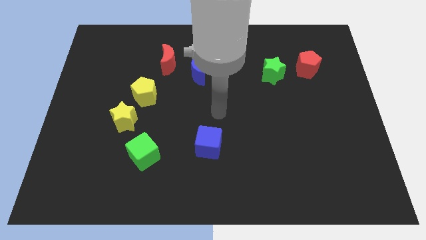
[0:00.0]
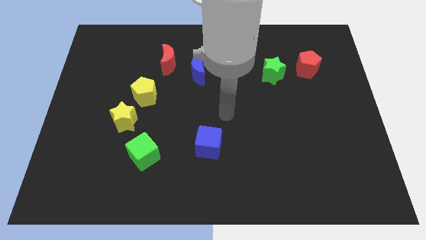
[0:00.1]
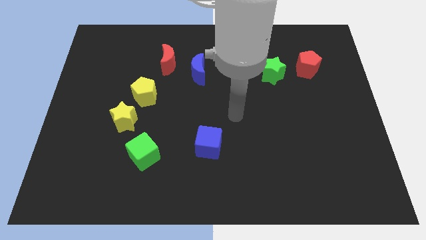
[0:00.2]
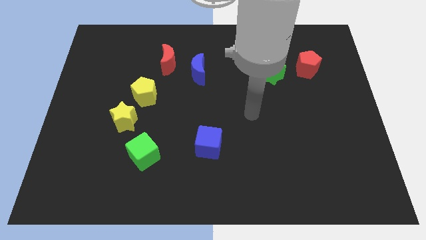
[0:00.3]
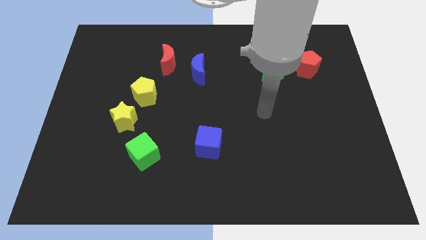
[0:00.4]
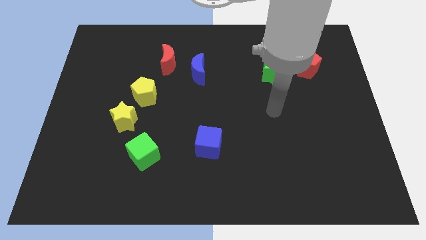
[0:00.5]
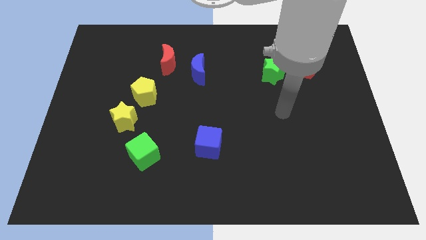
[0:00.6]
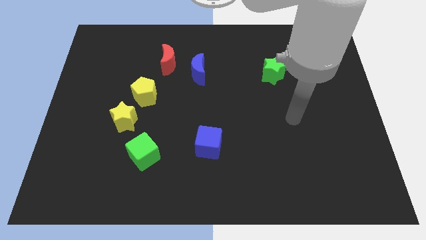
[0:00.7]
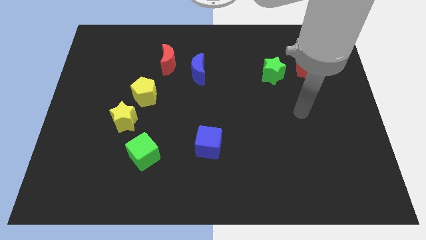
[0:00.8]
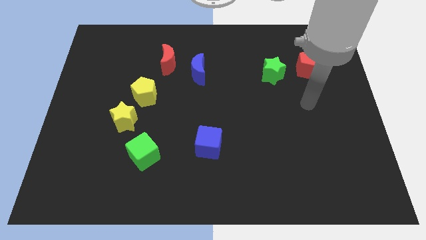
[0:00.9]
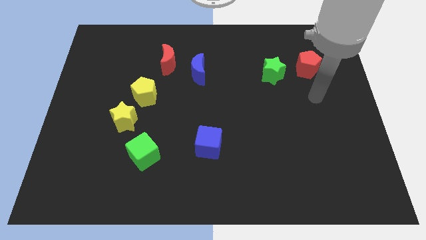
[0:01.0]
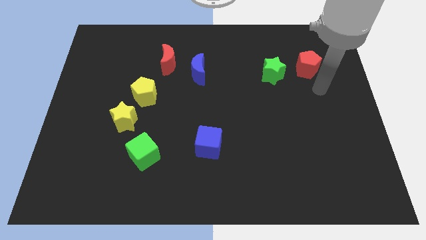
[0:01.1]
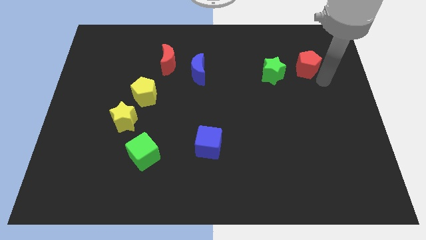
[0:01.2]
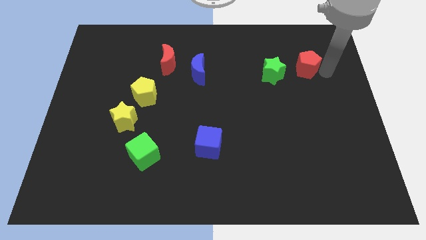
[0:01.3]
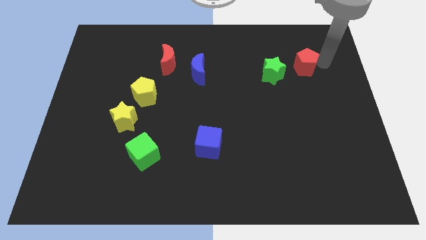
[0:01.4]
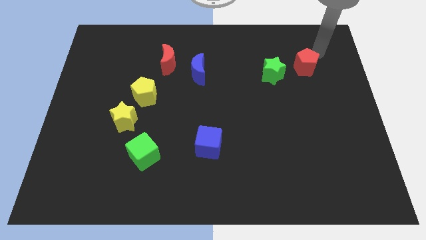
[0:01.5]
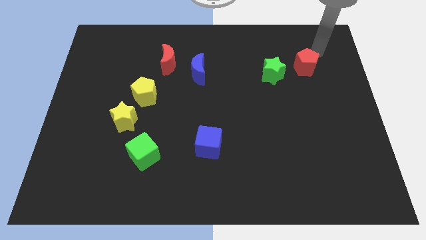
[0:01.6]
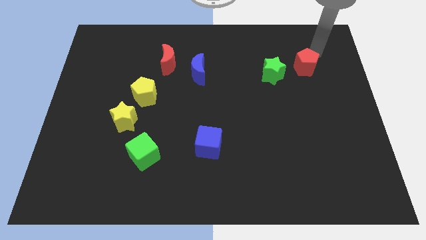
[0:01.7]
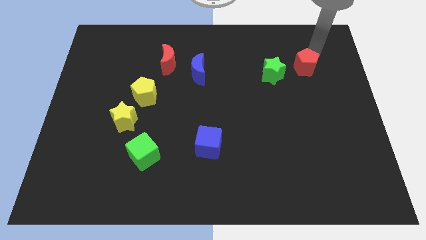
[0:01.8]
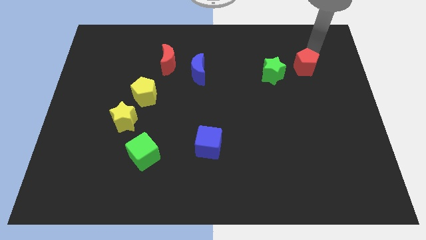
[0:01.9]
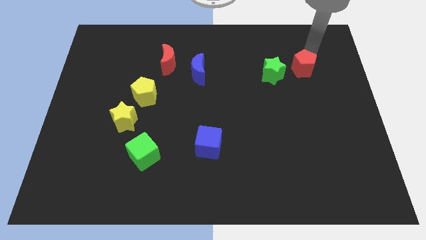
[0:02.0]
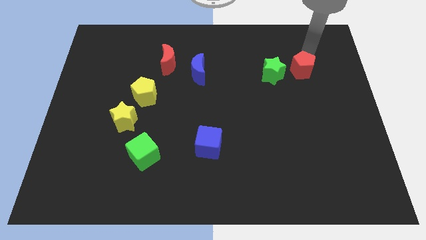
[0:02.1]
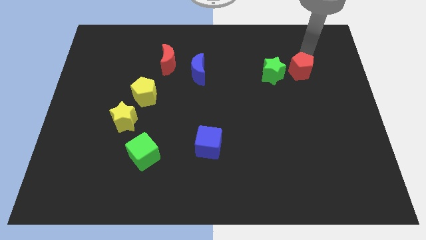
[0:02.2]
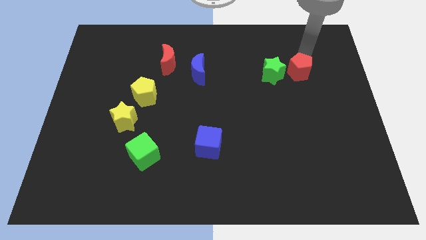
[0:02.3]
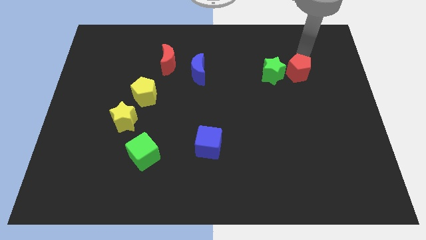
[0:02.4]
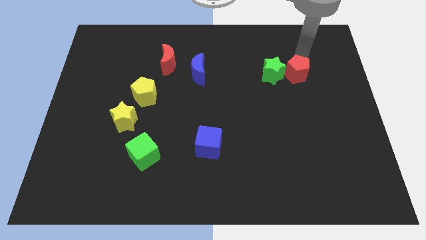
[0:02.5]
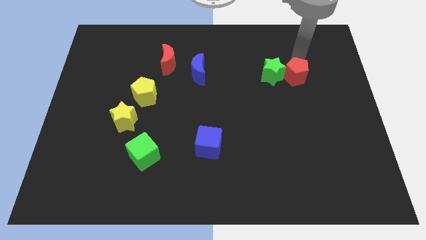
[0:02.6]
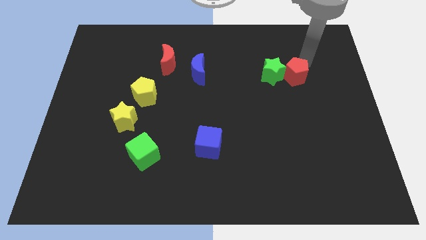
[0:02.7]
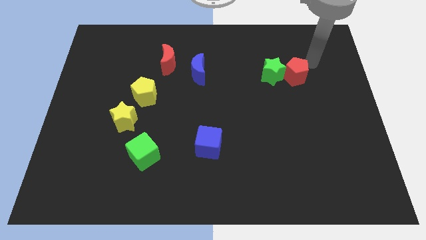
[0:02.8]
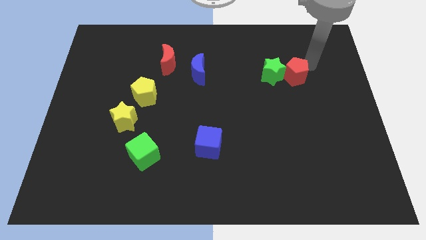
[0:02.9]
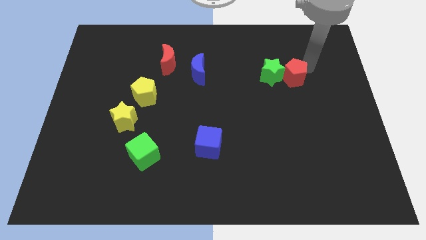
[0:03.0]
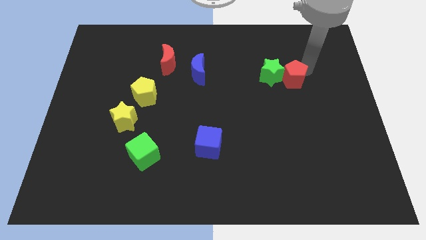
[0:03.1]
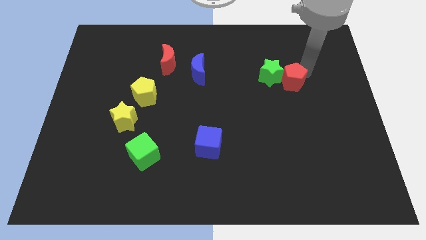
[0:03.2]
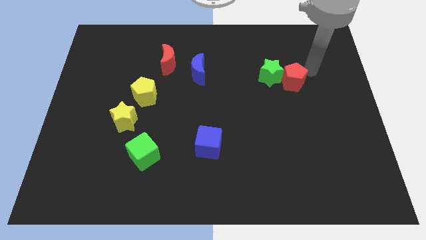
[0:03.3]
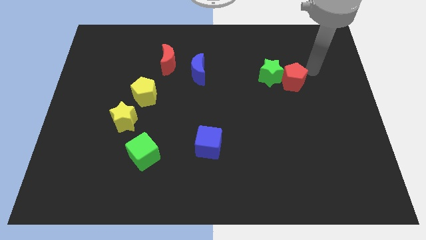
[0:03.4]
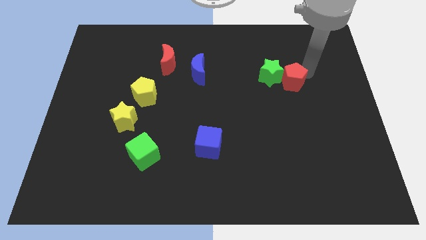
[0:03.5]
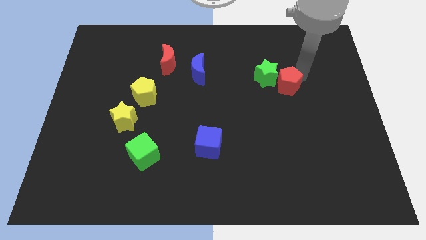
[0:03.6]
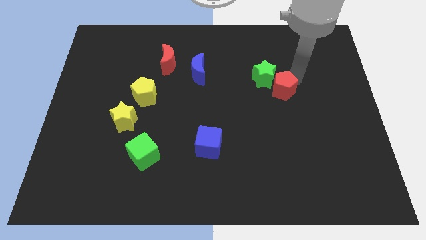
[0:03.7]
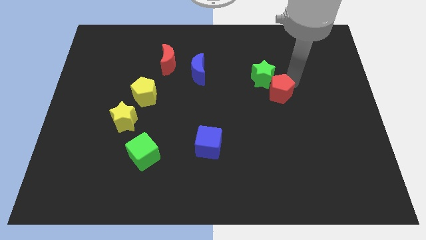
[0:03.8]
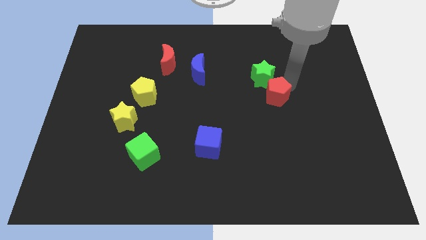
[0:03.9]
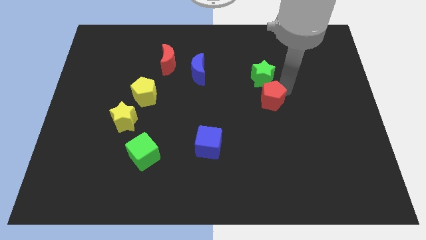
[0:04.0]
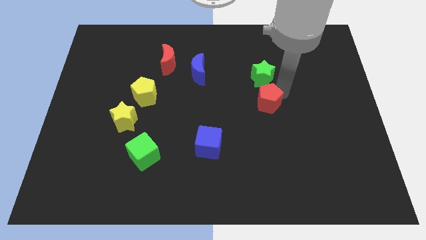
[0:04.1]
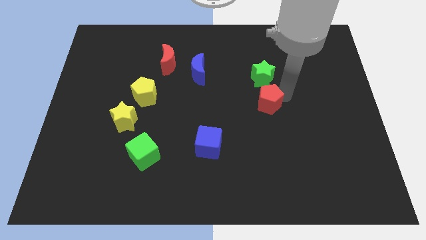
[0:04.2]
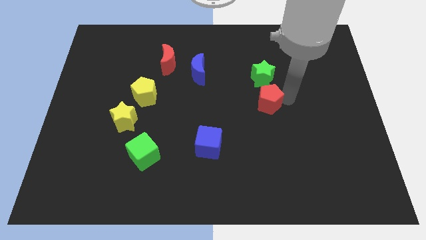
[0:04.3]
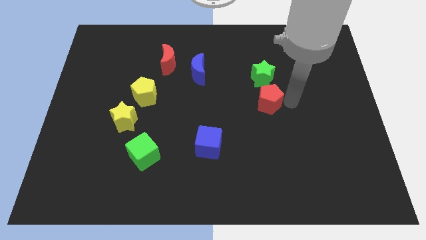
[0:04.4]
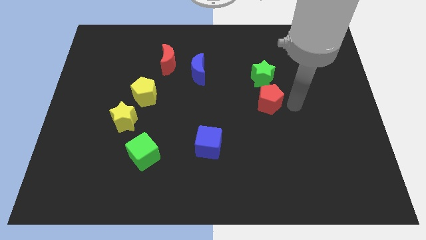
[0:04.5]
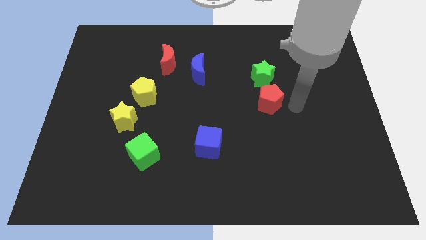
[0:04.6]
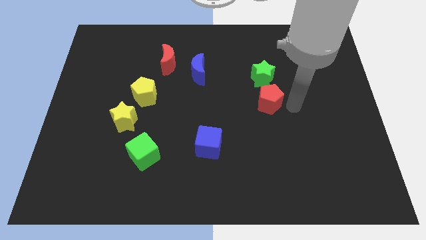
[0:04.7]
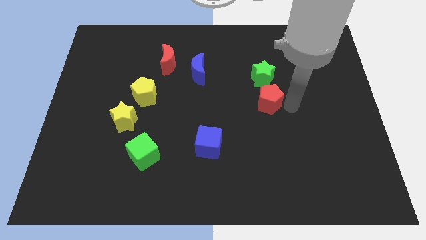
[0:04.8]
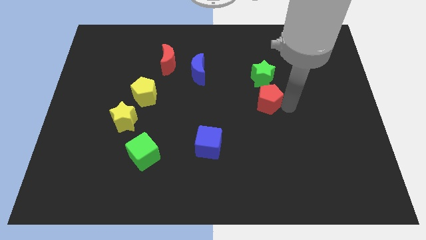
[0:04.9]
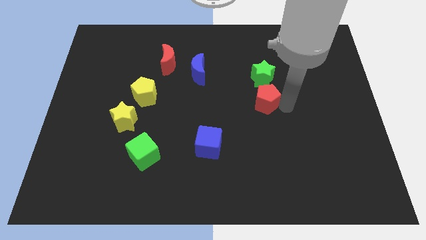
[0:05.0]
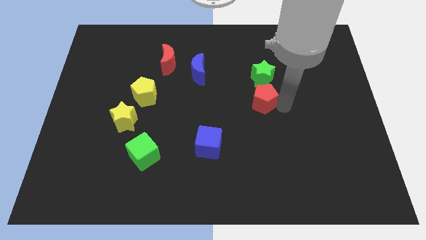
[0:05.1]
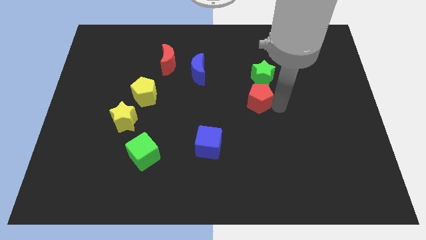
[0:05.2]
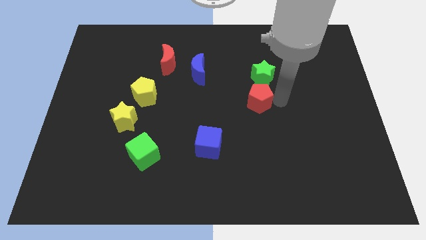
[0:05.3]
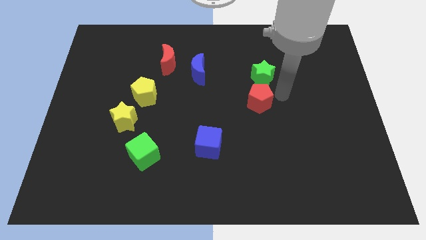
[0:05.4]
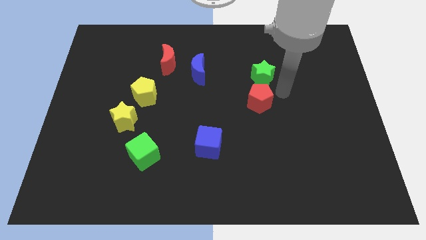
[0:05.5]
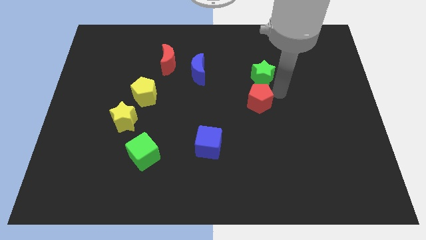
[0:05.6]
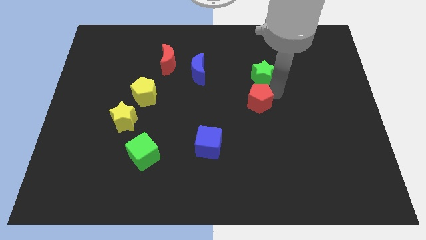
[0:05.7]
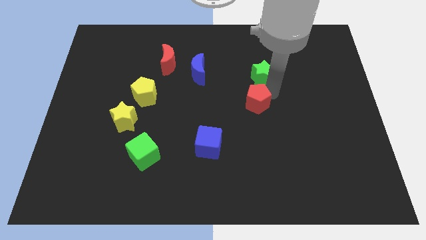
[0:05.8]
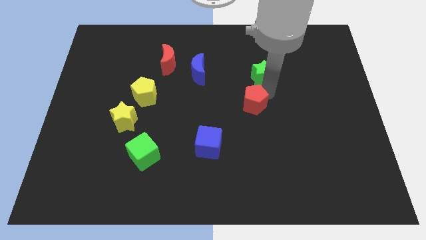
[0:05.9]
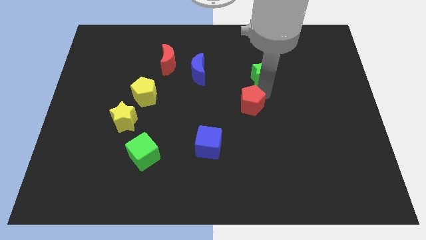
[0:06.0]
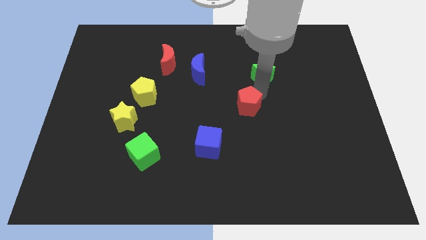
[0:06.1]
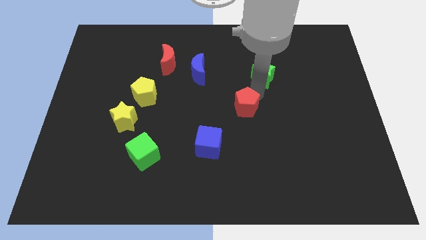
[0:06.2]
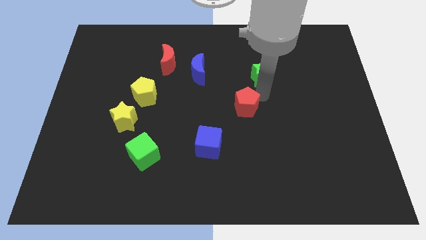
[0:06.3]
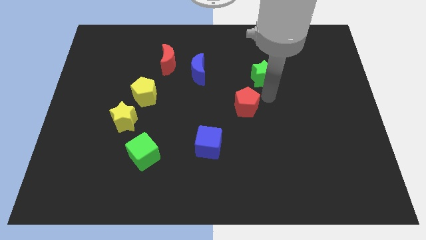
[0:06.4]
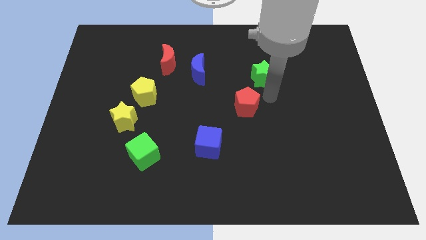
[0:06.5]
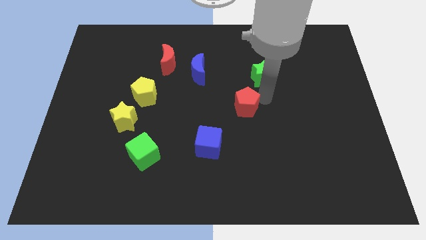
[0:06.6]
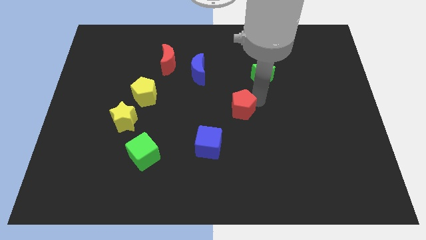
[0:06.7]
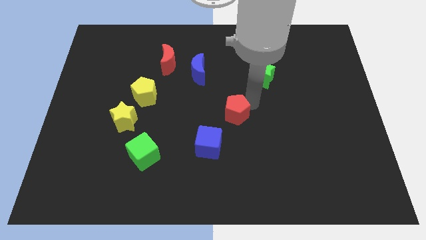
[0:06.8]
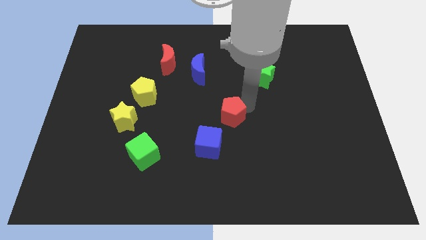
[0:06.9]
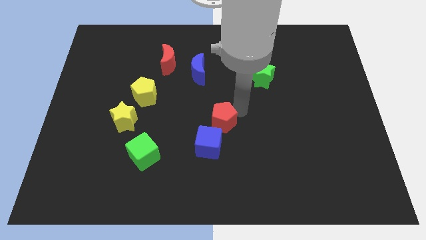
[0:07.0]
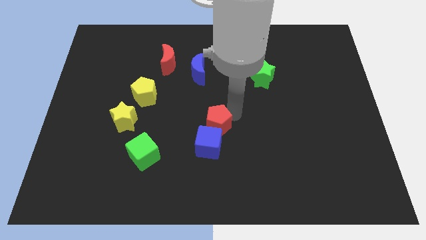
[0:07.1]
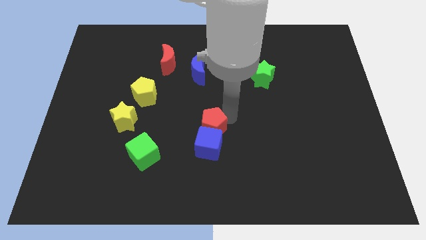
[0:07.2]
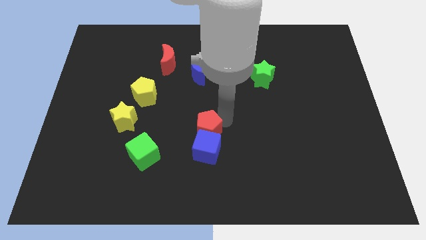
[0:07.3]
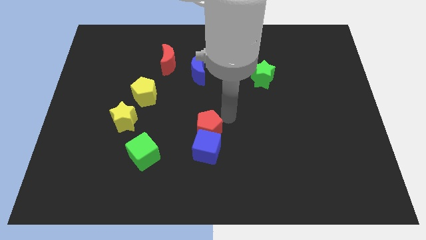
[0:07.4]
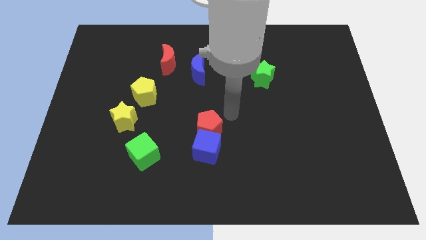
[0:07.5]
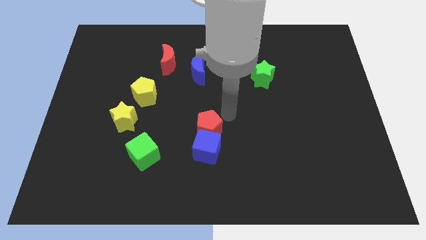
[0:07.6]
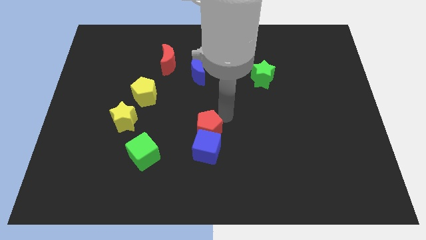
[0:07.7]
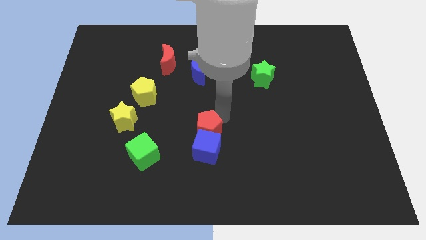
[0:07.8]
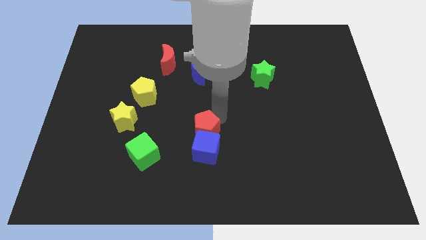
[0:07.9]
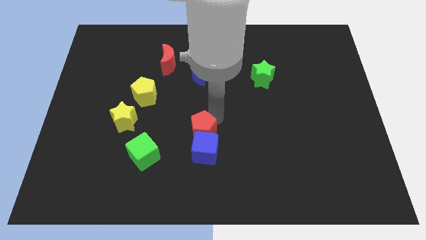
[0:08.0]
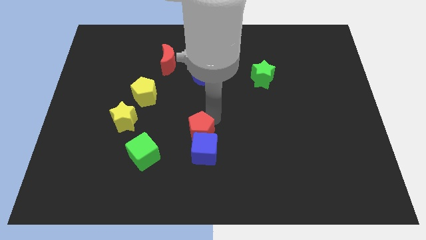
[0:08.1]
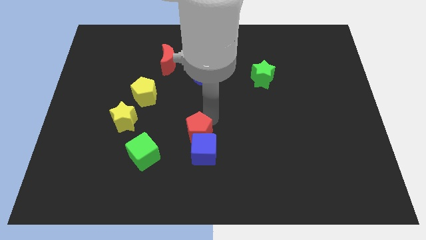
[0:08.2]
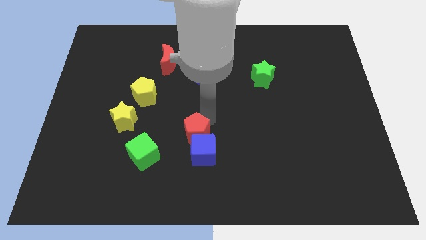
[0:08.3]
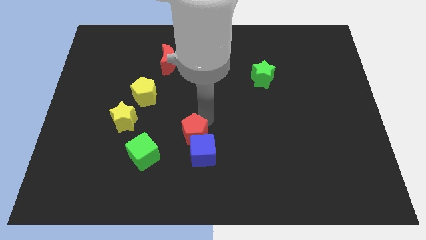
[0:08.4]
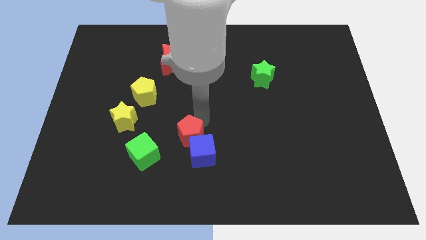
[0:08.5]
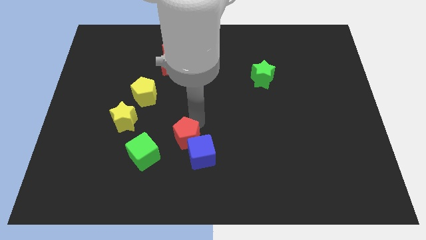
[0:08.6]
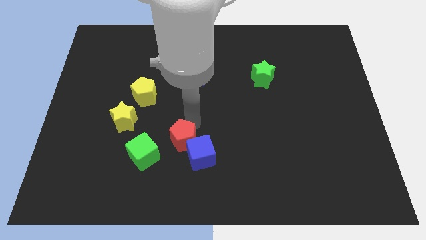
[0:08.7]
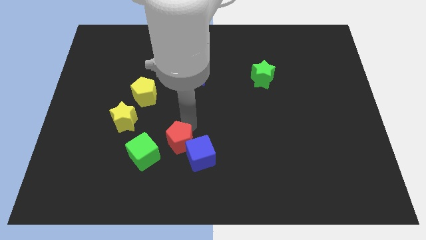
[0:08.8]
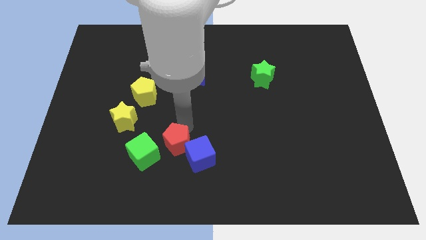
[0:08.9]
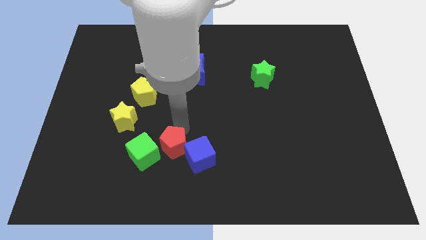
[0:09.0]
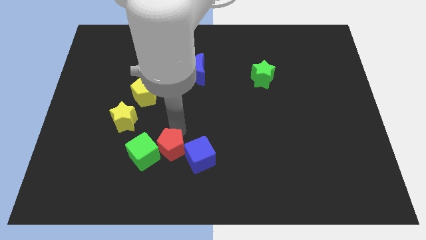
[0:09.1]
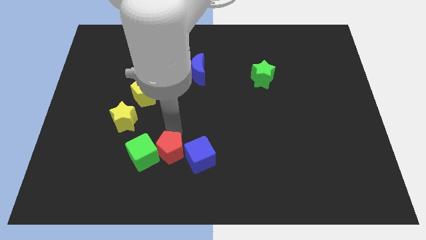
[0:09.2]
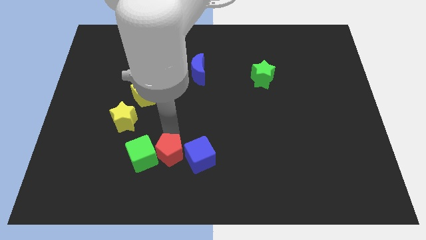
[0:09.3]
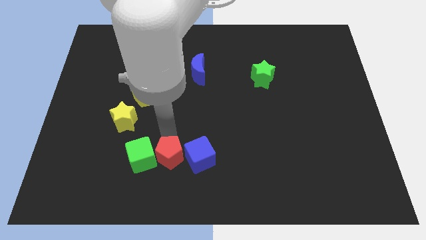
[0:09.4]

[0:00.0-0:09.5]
slide the red pentagon diagonally down and to the left of the blue cube
